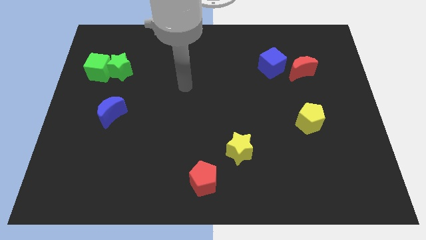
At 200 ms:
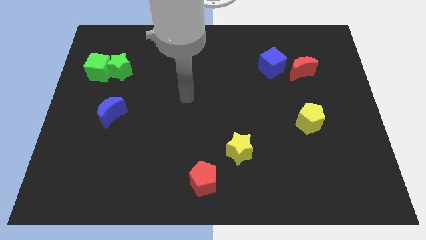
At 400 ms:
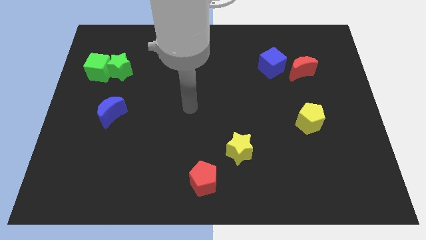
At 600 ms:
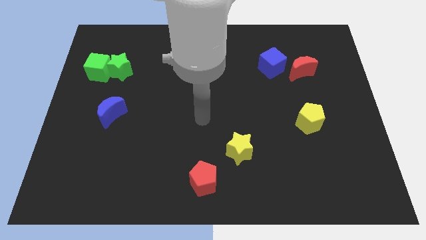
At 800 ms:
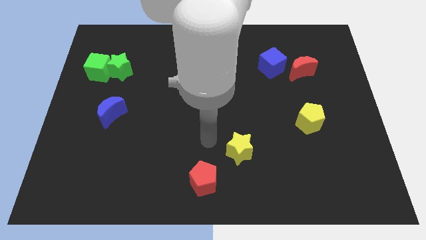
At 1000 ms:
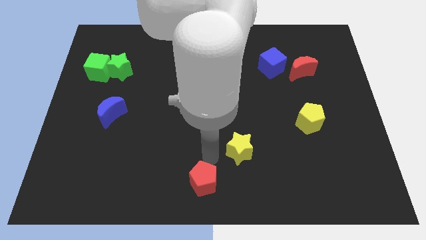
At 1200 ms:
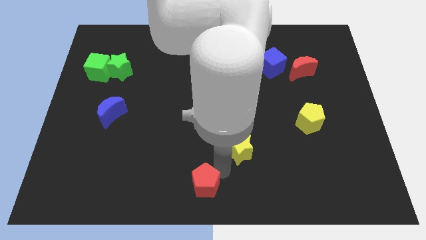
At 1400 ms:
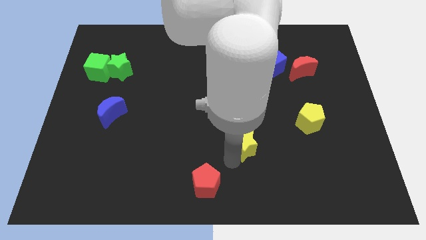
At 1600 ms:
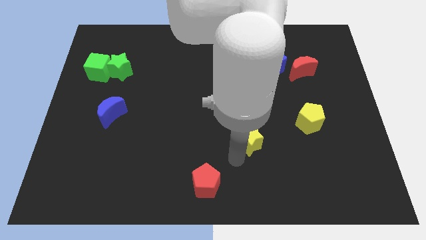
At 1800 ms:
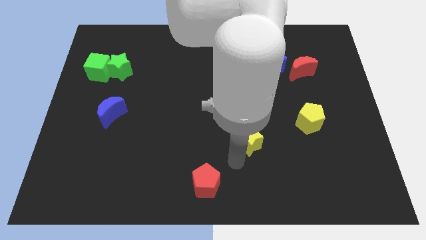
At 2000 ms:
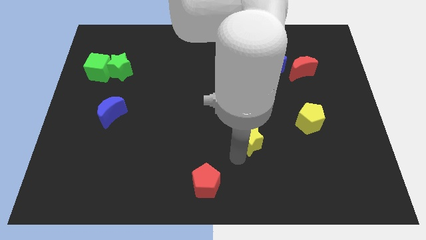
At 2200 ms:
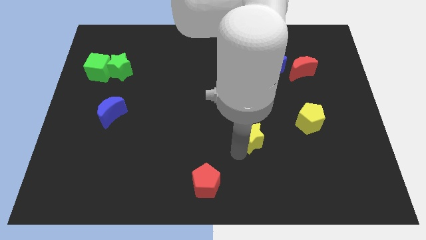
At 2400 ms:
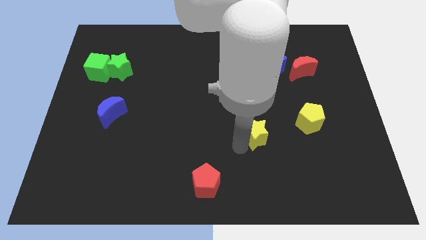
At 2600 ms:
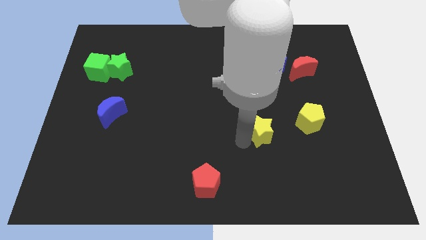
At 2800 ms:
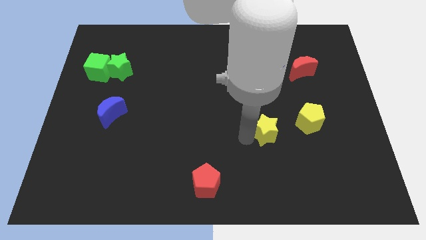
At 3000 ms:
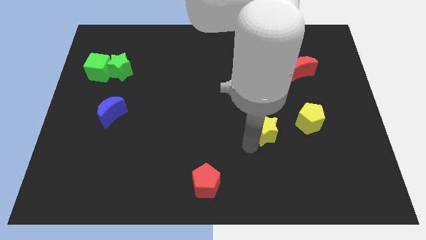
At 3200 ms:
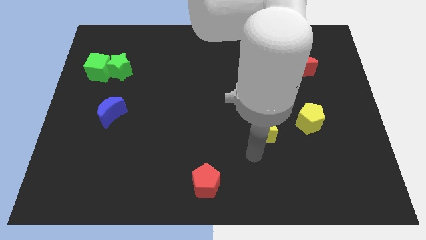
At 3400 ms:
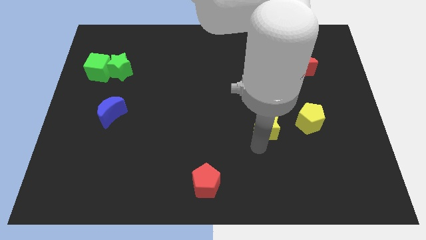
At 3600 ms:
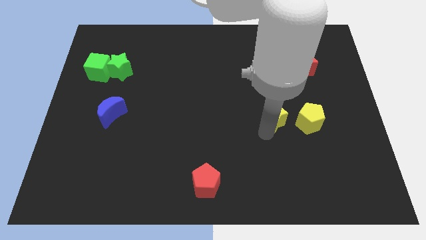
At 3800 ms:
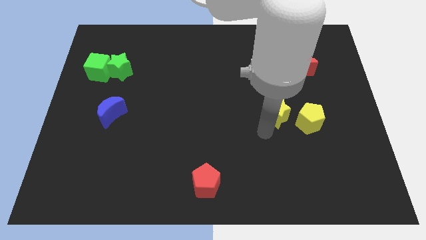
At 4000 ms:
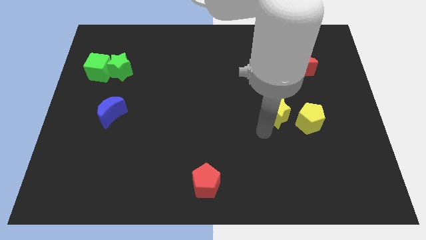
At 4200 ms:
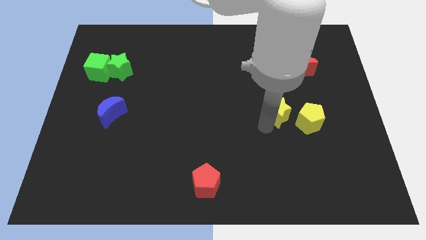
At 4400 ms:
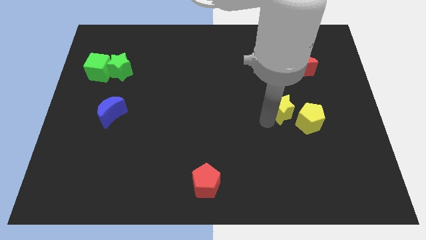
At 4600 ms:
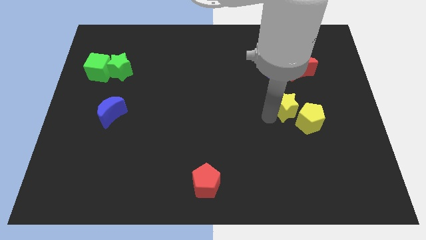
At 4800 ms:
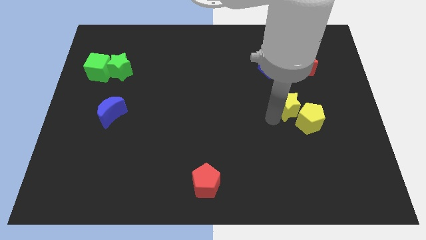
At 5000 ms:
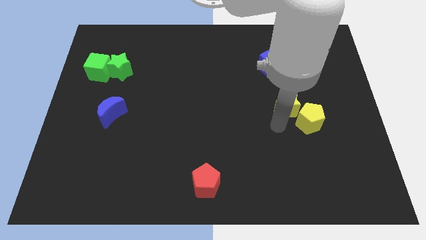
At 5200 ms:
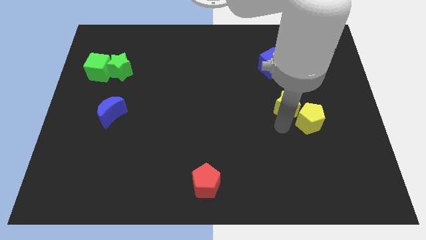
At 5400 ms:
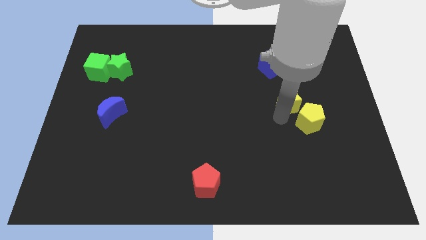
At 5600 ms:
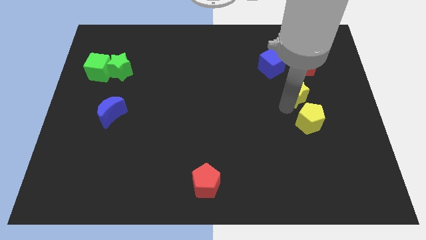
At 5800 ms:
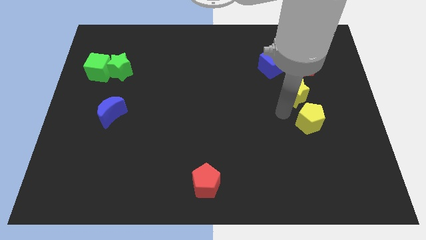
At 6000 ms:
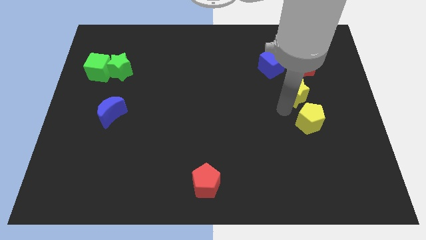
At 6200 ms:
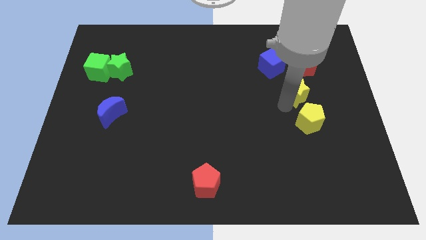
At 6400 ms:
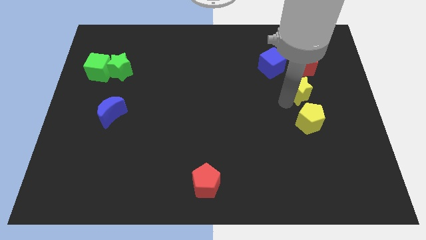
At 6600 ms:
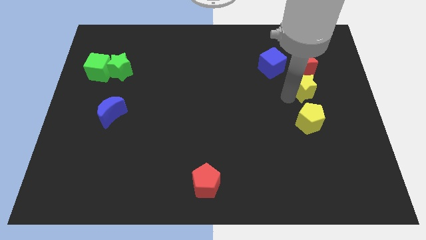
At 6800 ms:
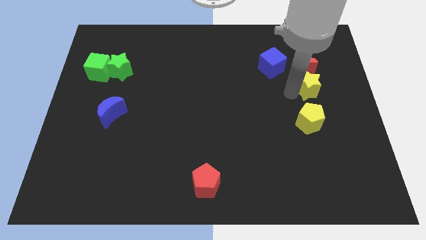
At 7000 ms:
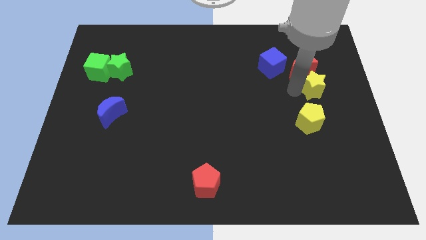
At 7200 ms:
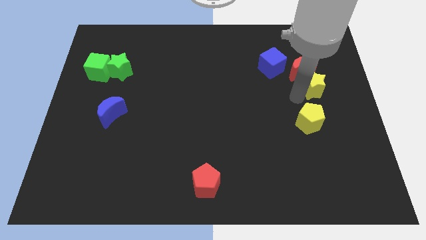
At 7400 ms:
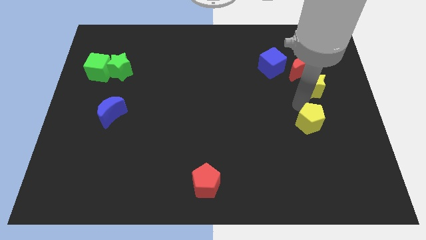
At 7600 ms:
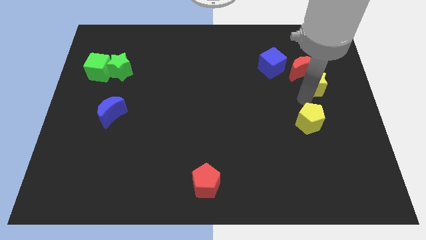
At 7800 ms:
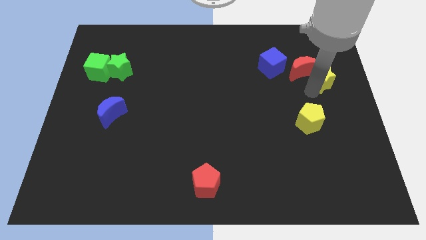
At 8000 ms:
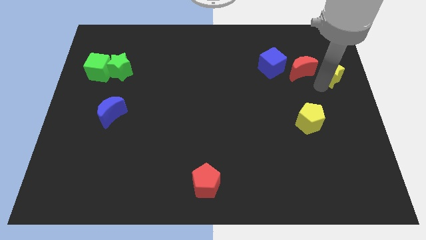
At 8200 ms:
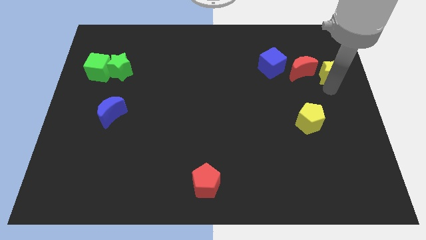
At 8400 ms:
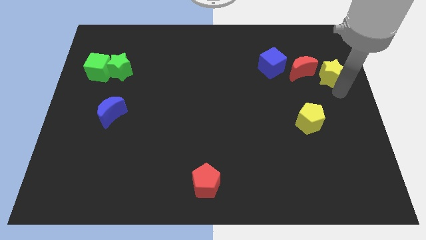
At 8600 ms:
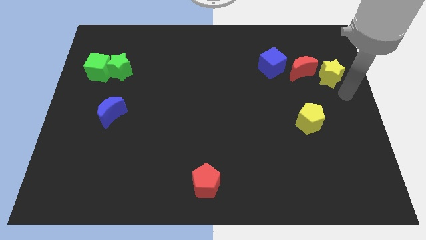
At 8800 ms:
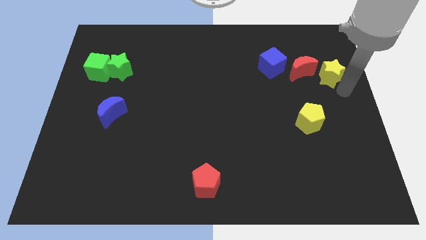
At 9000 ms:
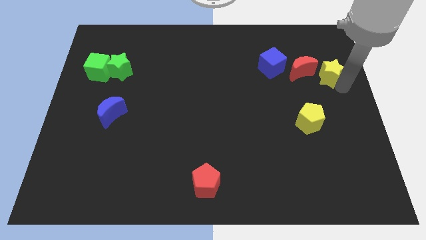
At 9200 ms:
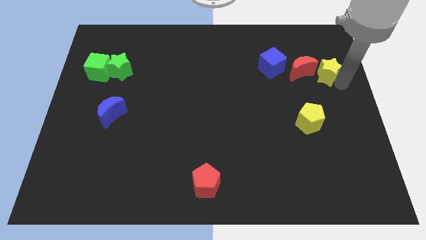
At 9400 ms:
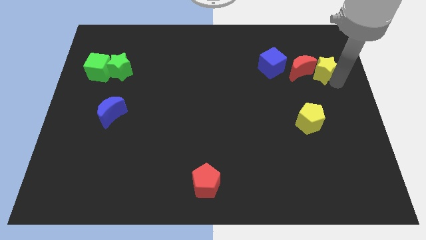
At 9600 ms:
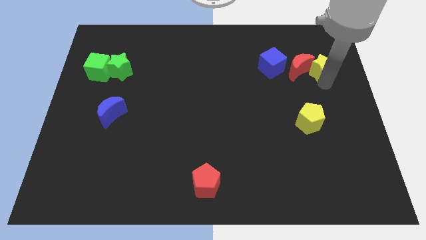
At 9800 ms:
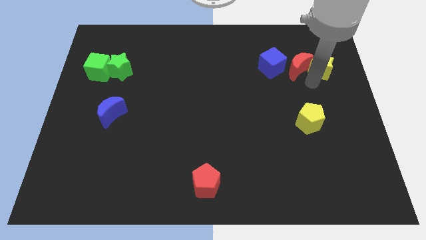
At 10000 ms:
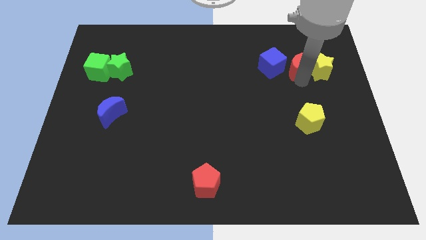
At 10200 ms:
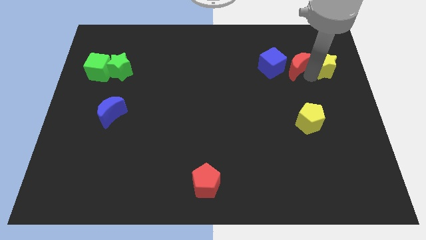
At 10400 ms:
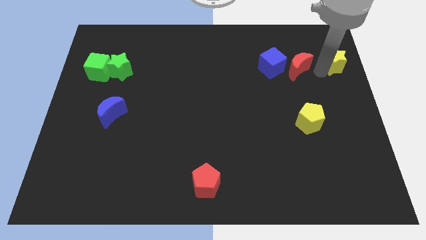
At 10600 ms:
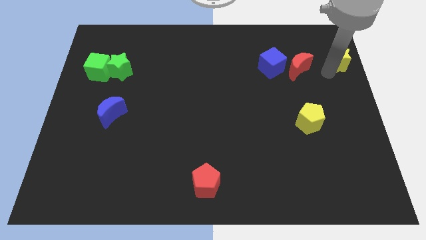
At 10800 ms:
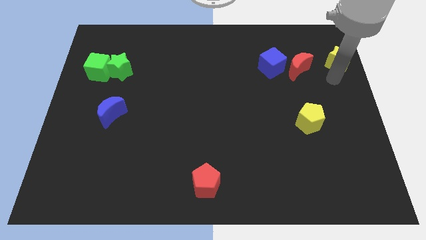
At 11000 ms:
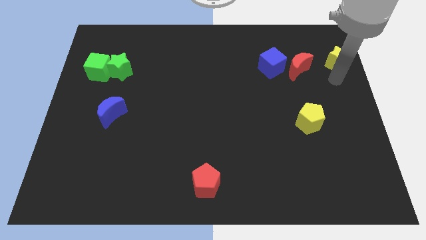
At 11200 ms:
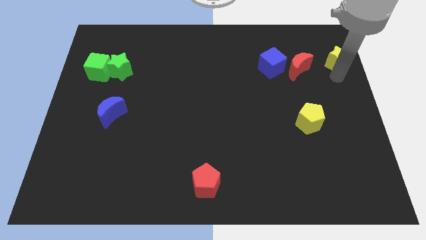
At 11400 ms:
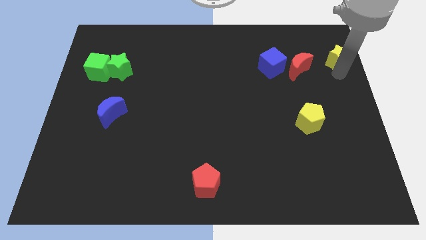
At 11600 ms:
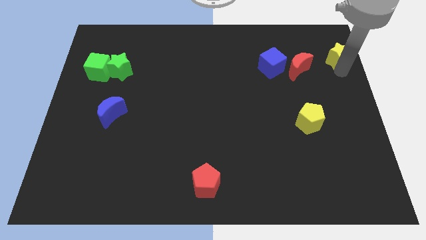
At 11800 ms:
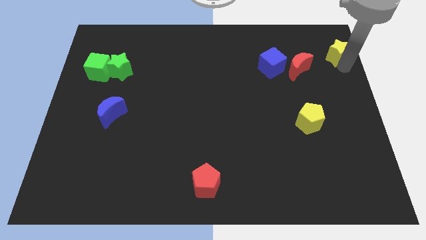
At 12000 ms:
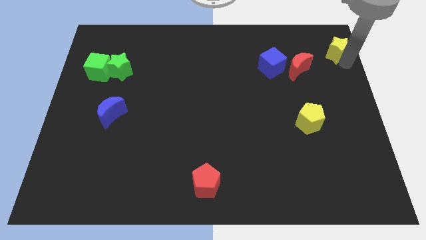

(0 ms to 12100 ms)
slide the yellow star to the upper right corner
